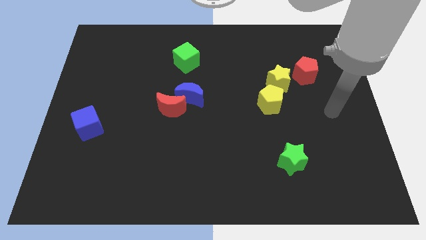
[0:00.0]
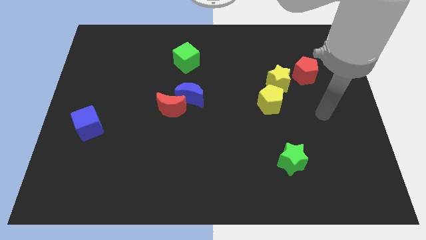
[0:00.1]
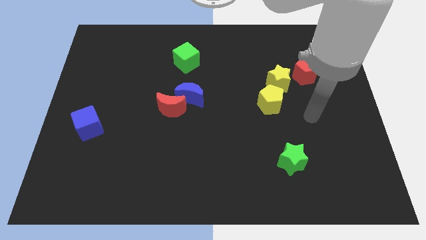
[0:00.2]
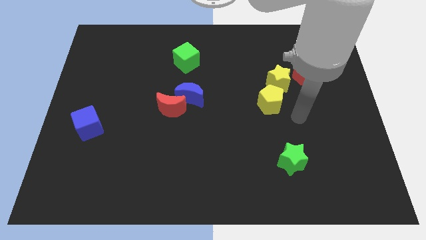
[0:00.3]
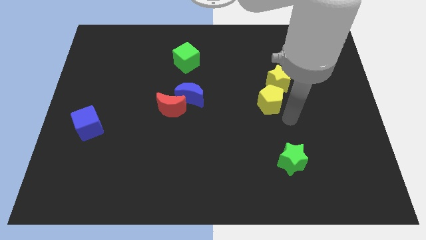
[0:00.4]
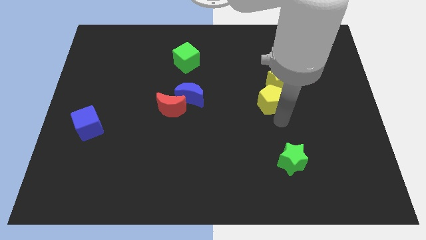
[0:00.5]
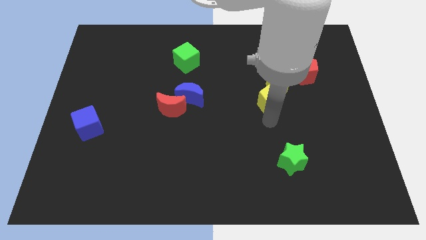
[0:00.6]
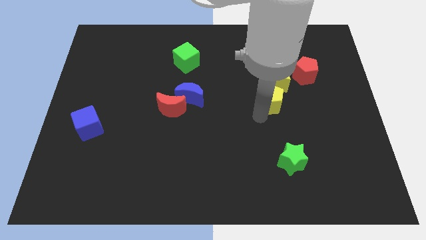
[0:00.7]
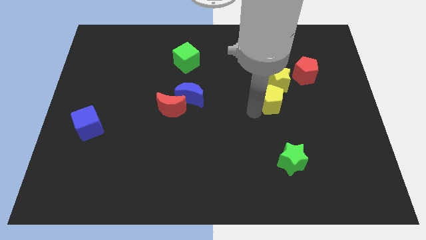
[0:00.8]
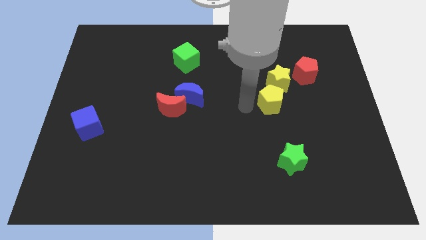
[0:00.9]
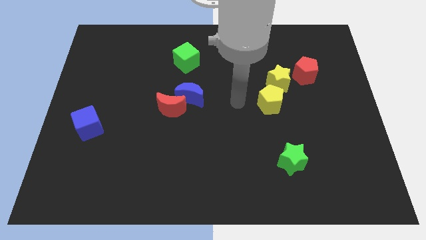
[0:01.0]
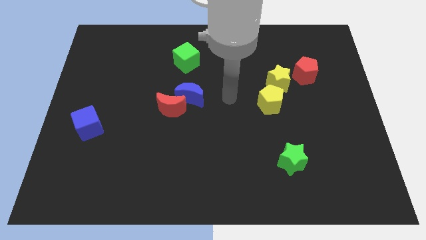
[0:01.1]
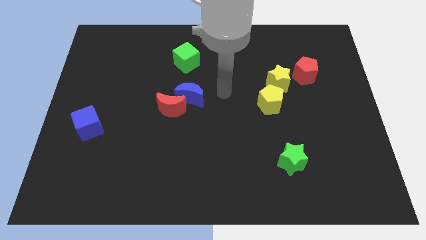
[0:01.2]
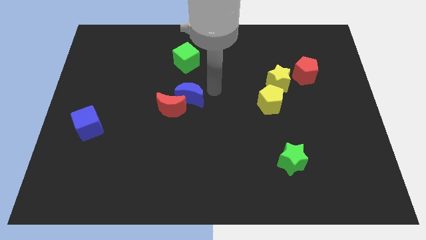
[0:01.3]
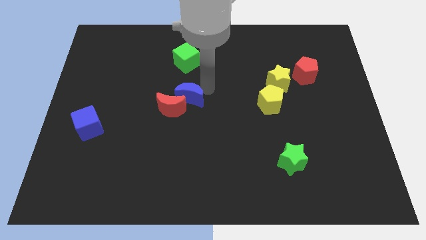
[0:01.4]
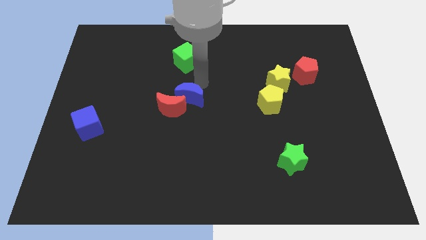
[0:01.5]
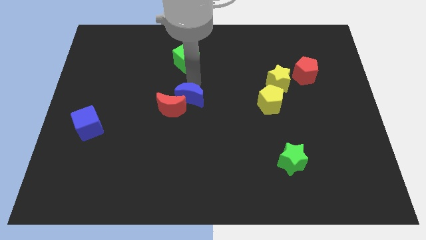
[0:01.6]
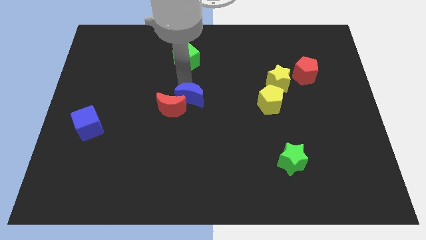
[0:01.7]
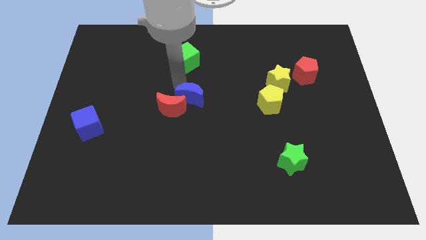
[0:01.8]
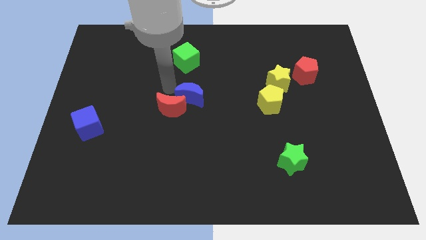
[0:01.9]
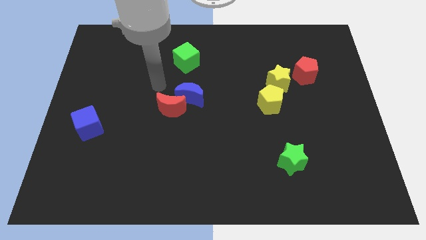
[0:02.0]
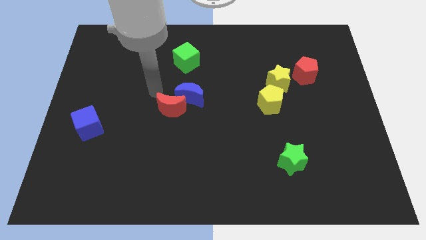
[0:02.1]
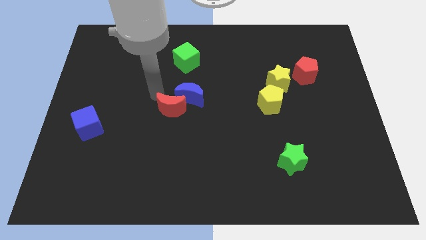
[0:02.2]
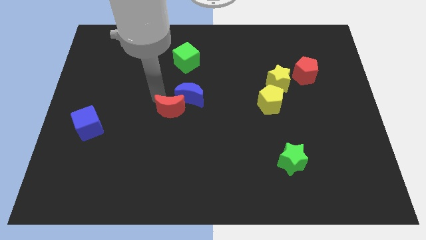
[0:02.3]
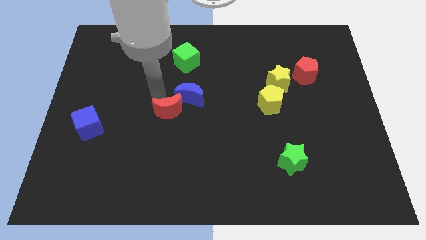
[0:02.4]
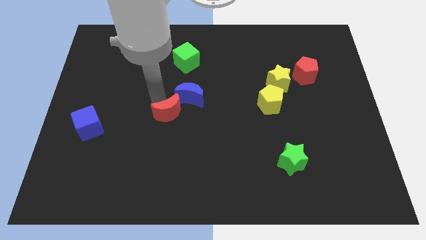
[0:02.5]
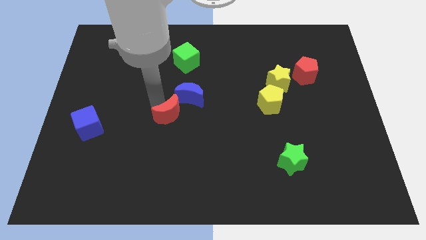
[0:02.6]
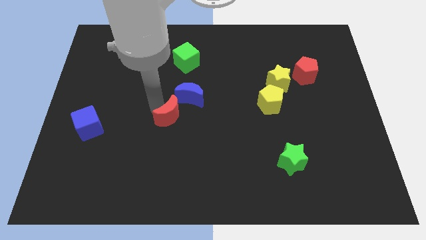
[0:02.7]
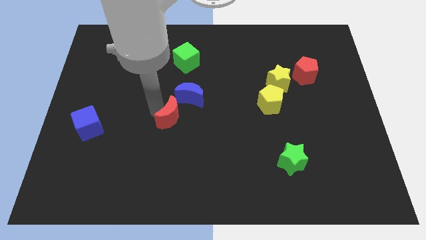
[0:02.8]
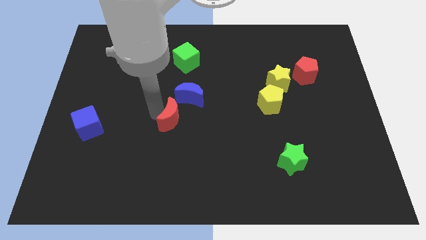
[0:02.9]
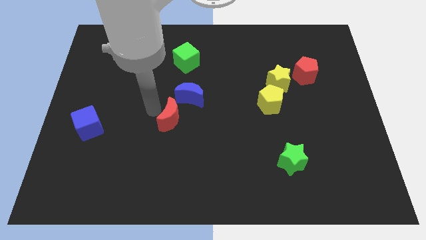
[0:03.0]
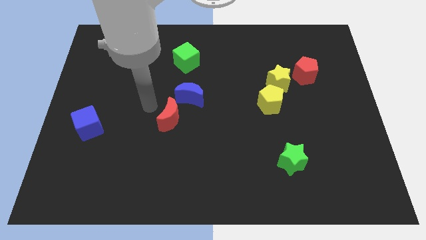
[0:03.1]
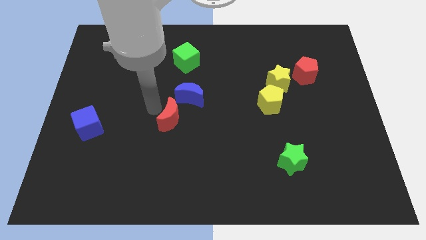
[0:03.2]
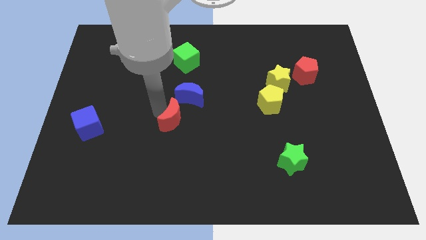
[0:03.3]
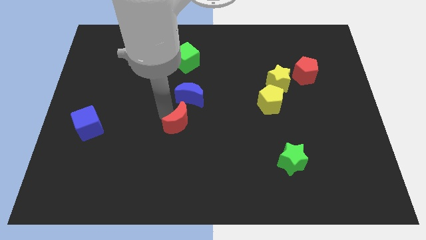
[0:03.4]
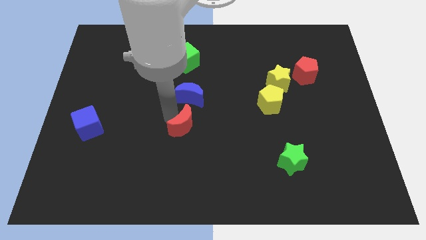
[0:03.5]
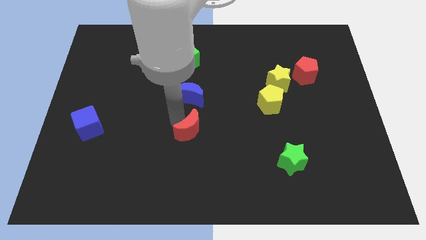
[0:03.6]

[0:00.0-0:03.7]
move the red moon a little downwards and to the right

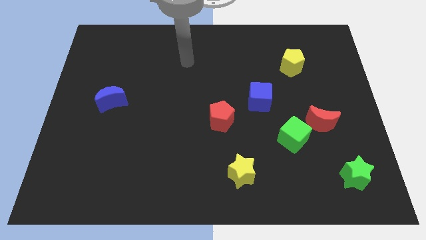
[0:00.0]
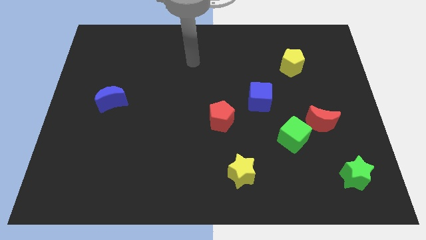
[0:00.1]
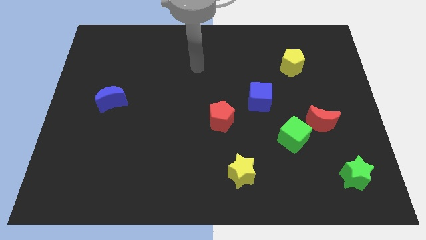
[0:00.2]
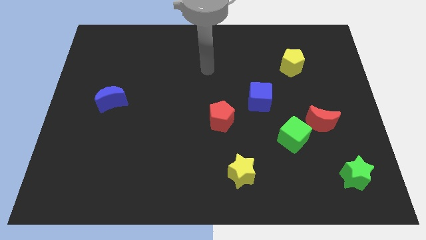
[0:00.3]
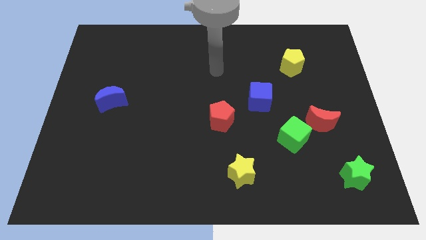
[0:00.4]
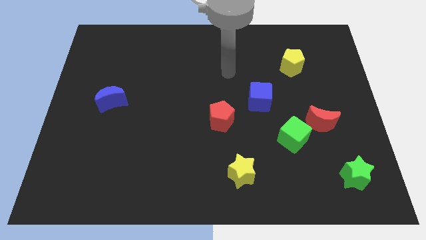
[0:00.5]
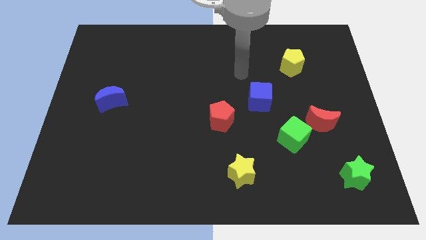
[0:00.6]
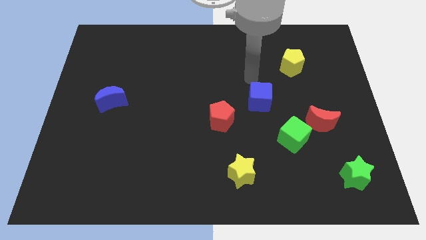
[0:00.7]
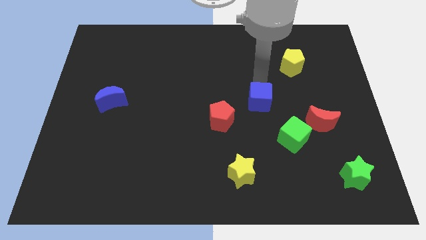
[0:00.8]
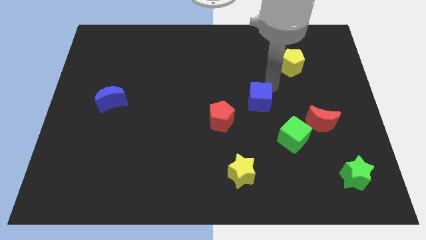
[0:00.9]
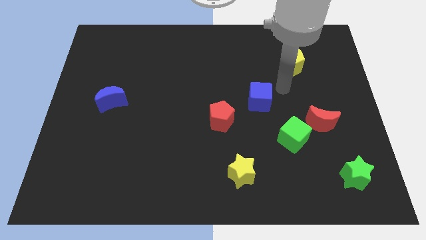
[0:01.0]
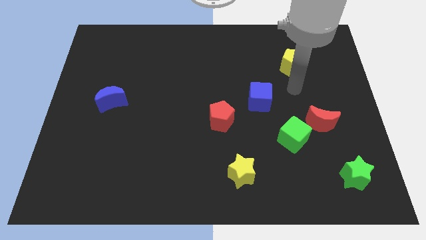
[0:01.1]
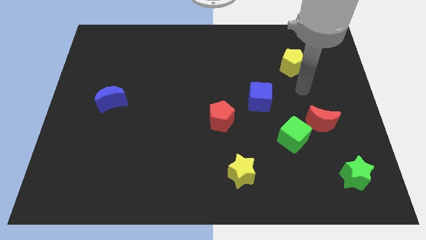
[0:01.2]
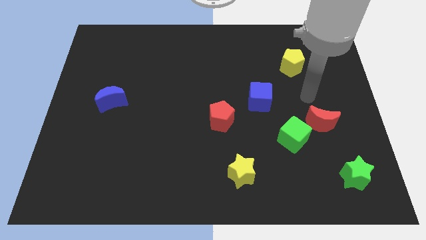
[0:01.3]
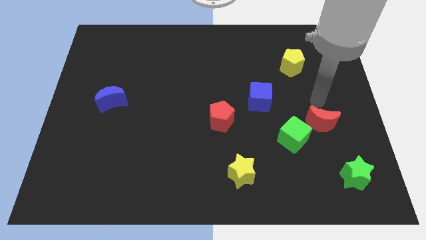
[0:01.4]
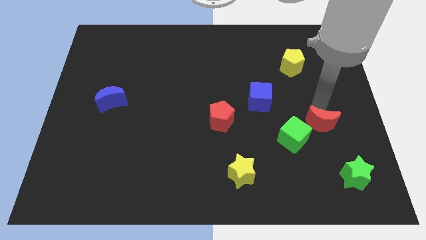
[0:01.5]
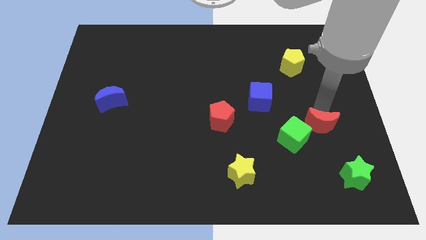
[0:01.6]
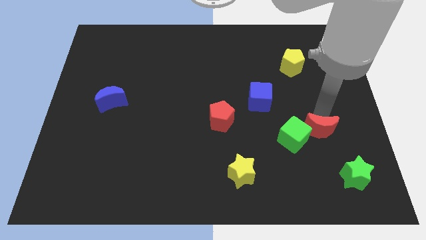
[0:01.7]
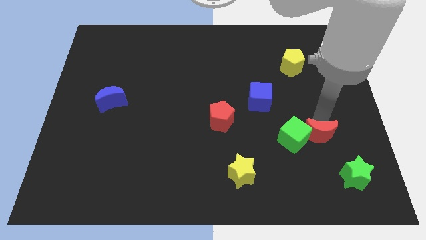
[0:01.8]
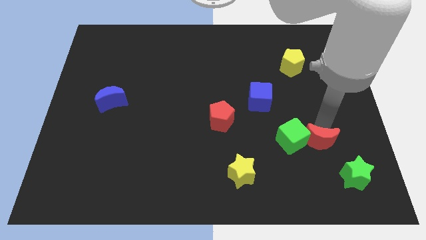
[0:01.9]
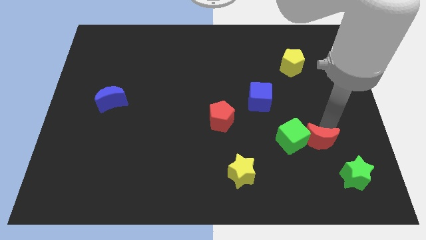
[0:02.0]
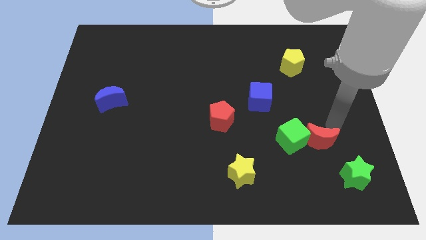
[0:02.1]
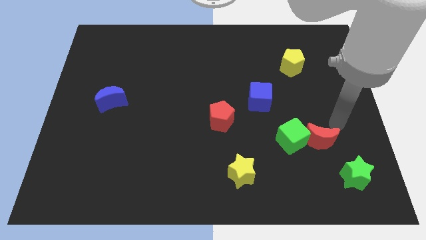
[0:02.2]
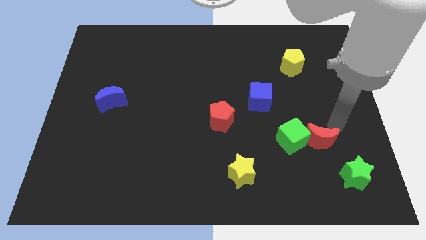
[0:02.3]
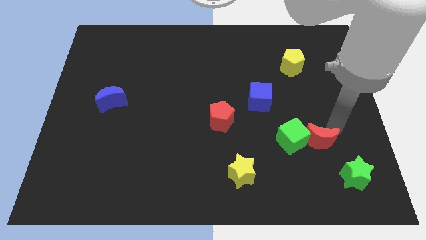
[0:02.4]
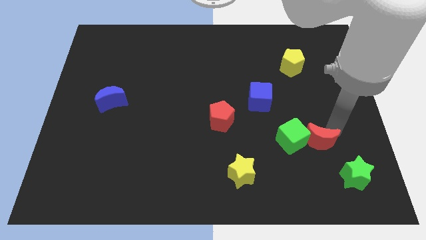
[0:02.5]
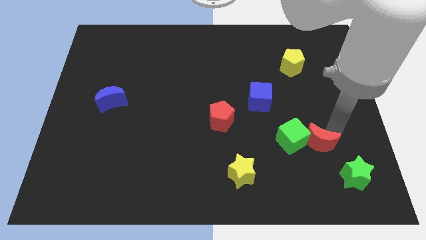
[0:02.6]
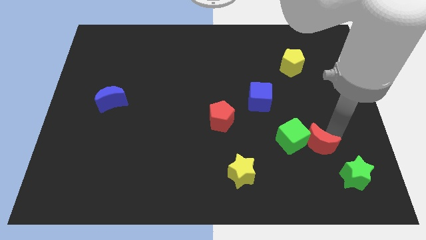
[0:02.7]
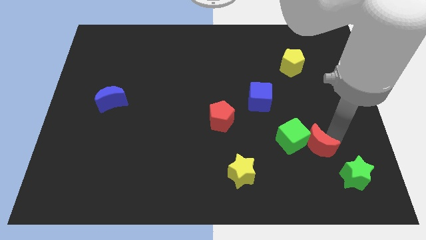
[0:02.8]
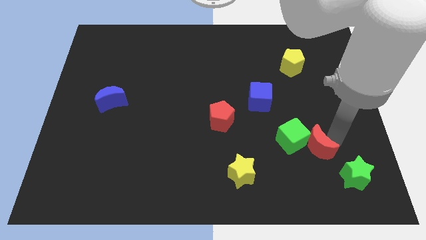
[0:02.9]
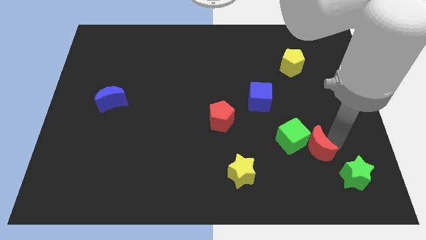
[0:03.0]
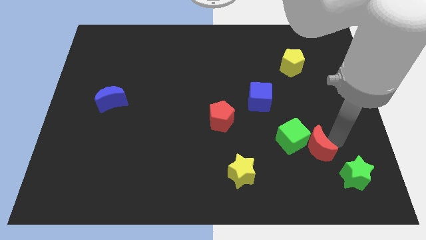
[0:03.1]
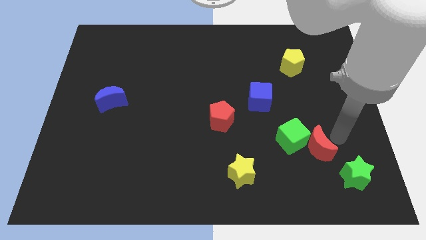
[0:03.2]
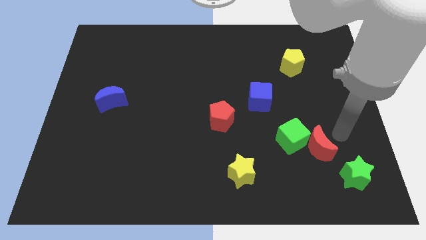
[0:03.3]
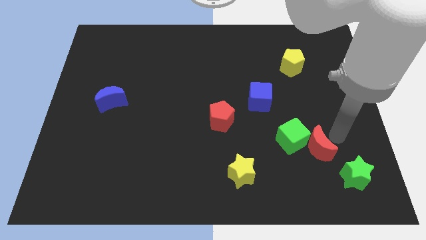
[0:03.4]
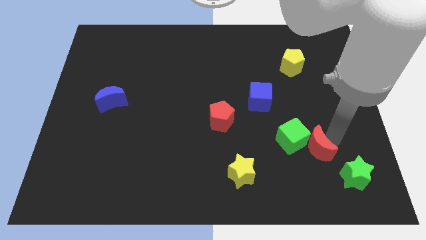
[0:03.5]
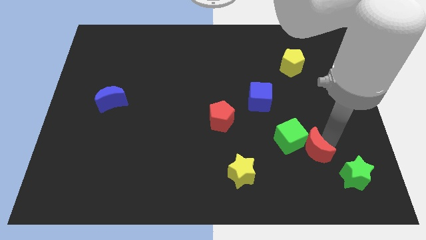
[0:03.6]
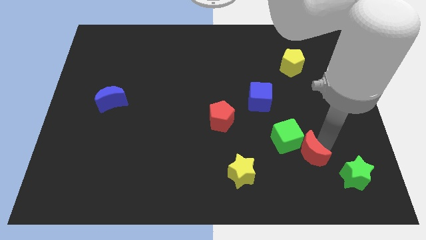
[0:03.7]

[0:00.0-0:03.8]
slightly slide the red moon down and then left

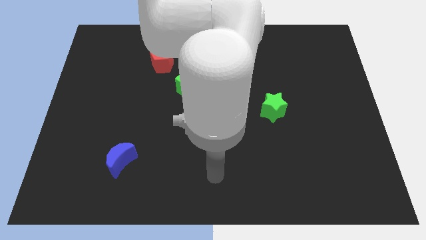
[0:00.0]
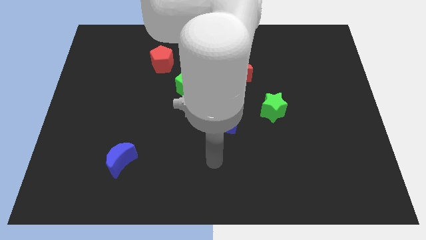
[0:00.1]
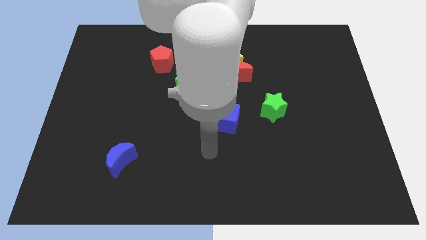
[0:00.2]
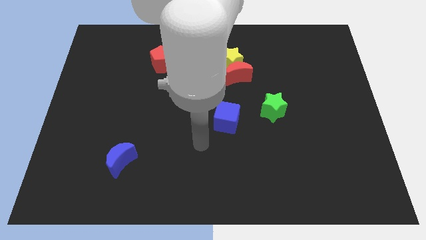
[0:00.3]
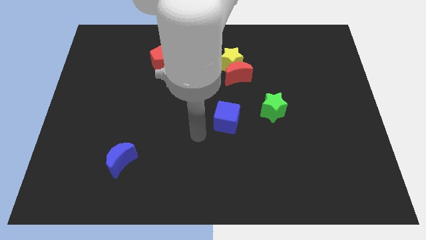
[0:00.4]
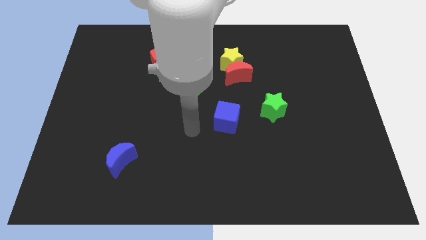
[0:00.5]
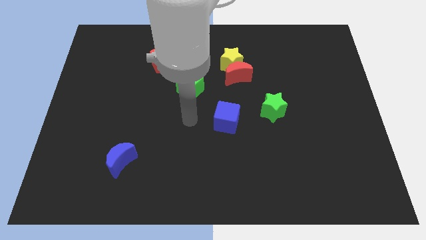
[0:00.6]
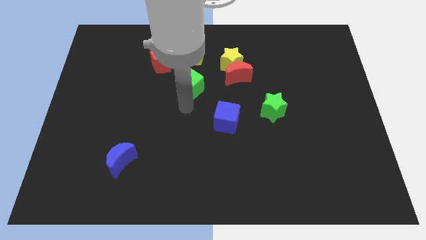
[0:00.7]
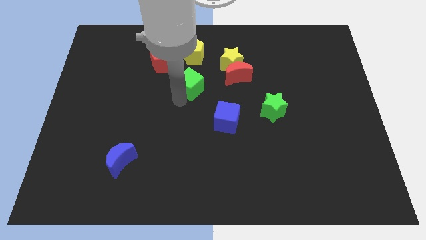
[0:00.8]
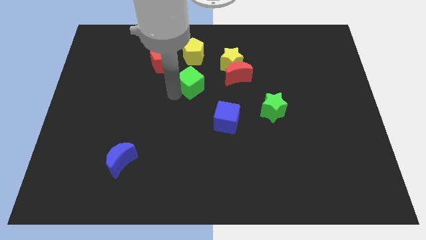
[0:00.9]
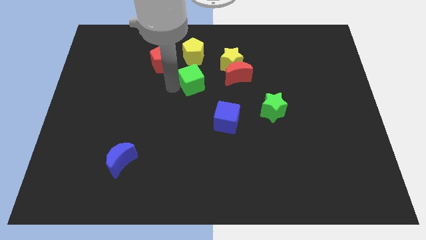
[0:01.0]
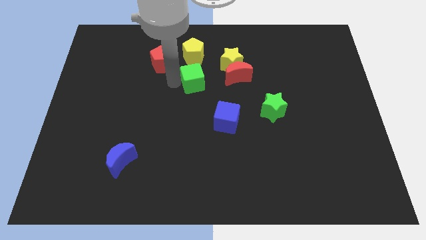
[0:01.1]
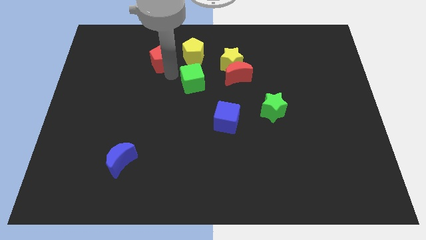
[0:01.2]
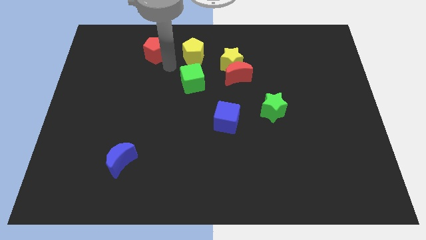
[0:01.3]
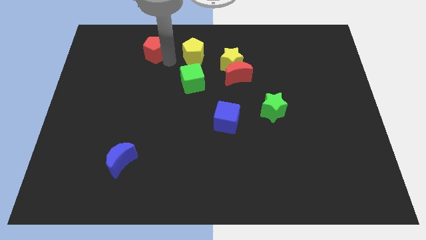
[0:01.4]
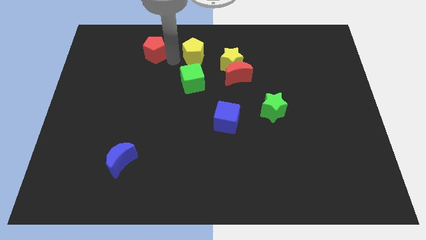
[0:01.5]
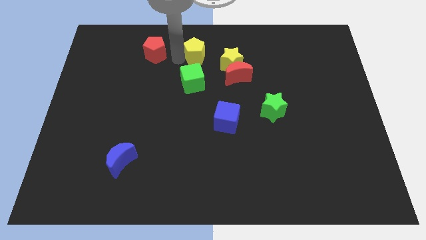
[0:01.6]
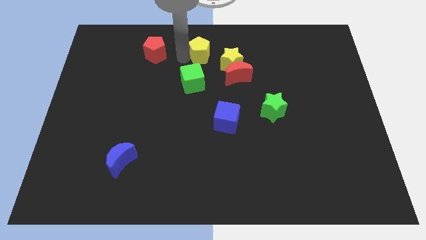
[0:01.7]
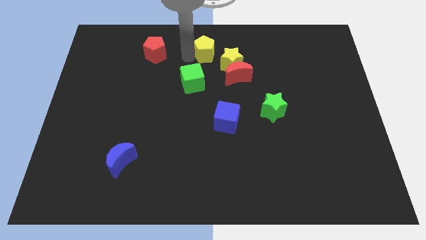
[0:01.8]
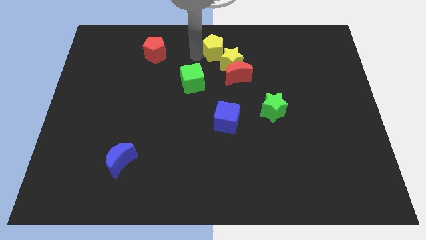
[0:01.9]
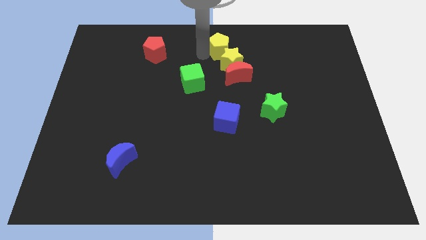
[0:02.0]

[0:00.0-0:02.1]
slightly push the yellow pentagon to the right
